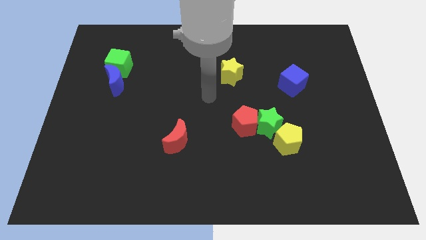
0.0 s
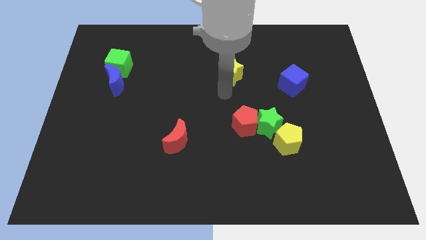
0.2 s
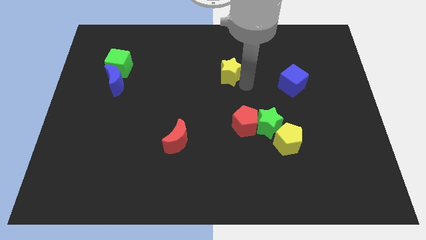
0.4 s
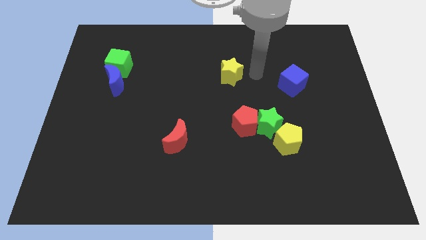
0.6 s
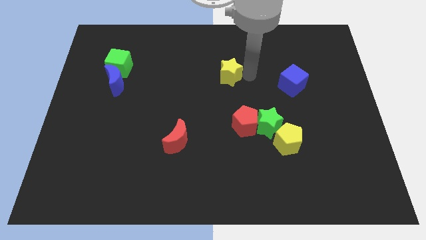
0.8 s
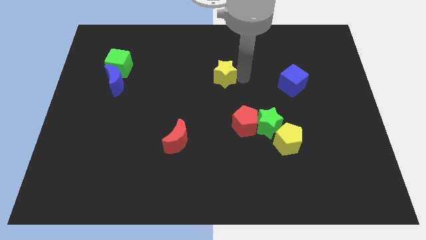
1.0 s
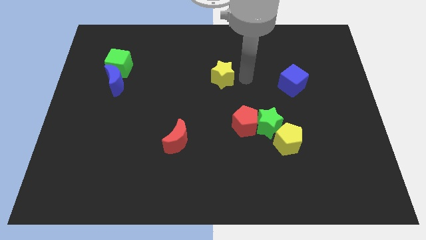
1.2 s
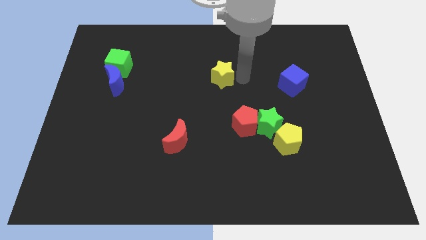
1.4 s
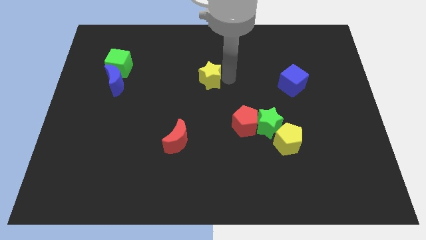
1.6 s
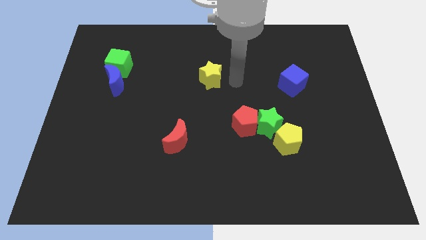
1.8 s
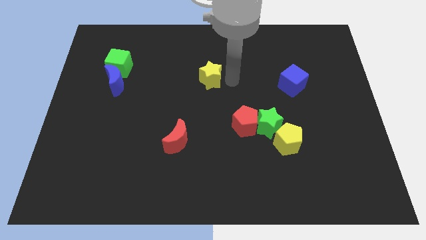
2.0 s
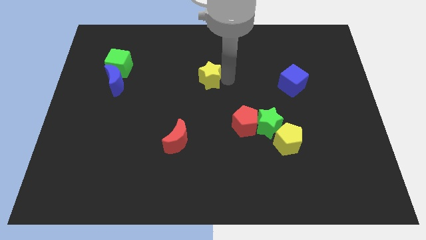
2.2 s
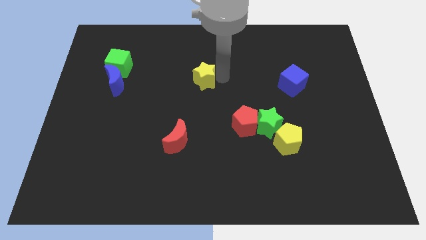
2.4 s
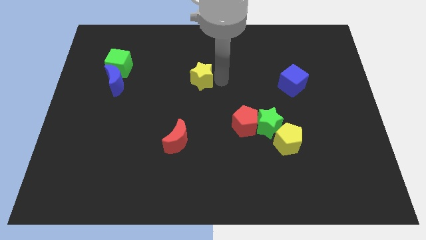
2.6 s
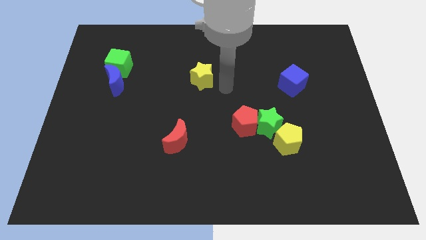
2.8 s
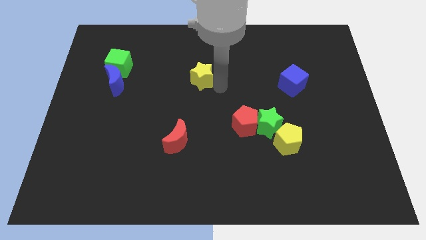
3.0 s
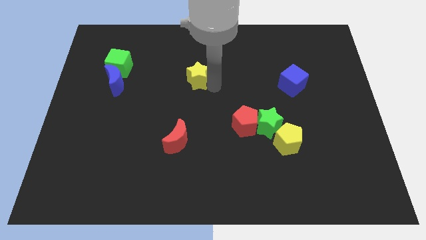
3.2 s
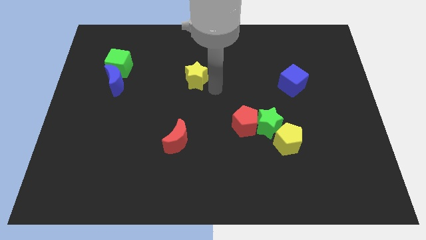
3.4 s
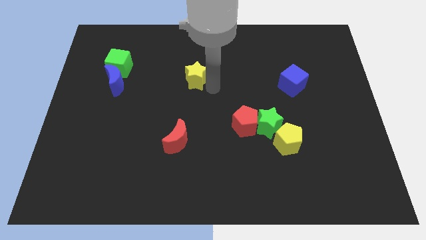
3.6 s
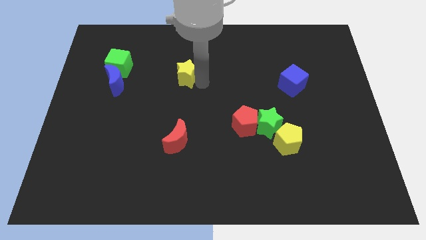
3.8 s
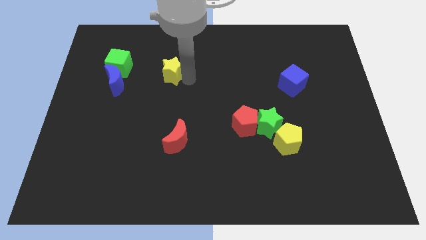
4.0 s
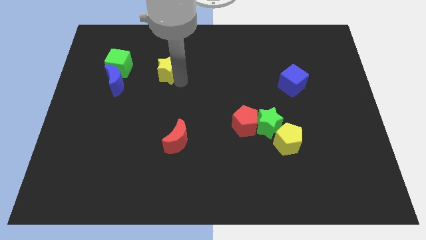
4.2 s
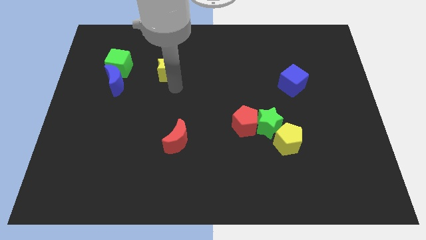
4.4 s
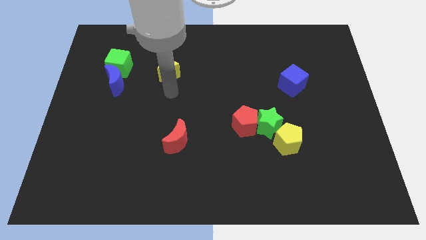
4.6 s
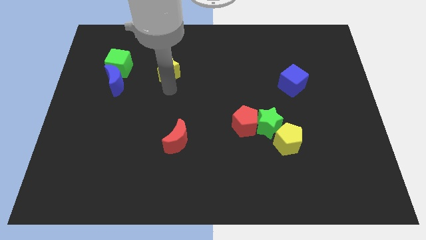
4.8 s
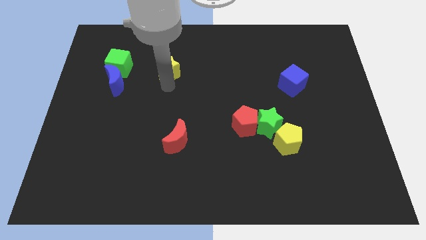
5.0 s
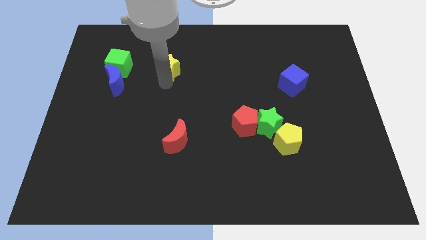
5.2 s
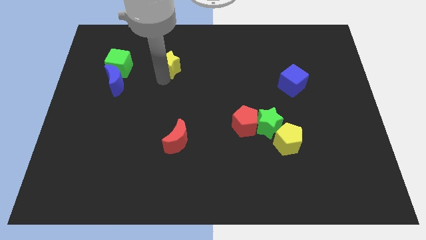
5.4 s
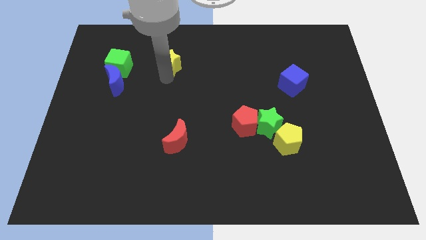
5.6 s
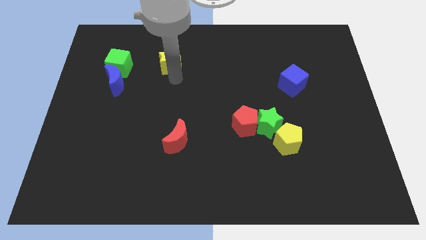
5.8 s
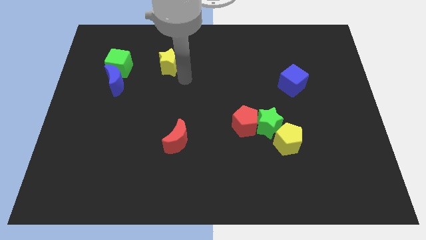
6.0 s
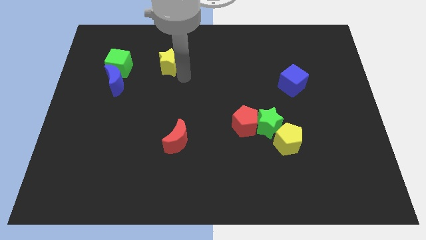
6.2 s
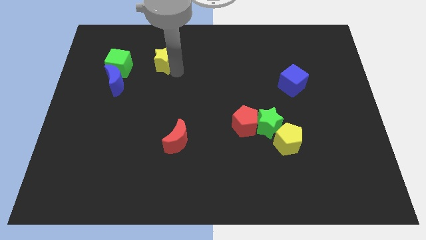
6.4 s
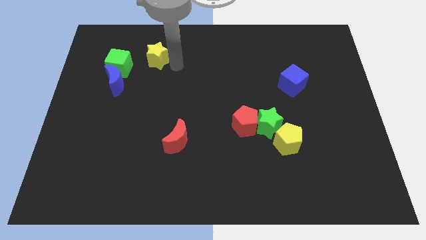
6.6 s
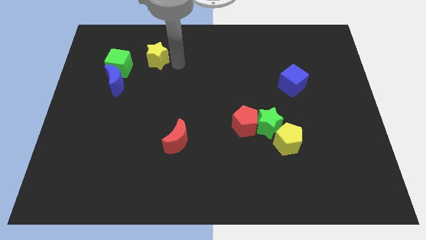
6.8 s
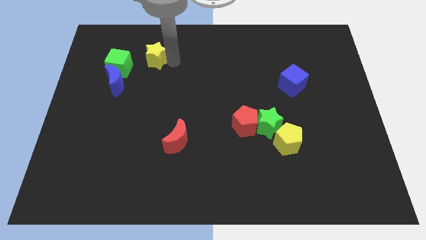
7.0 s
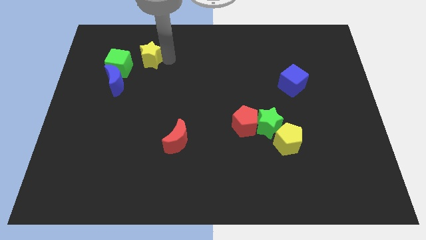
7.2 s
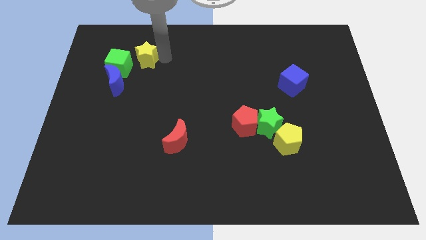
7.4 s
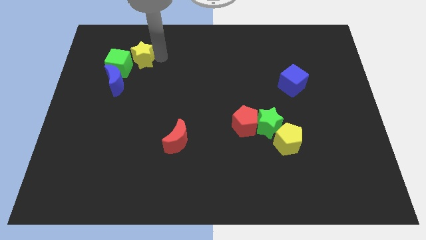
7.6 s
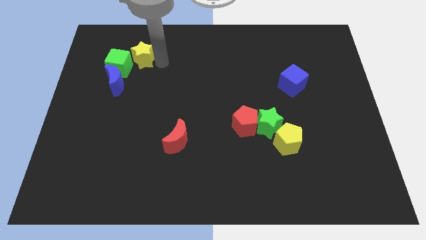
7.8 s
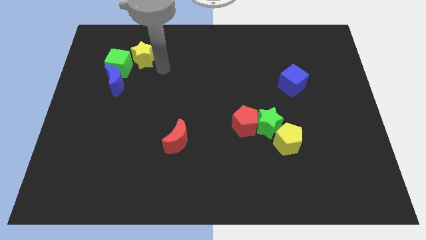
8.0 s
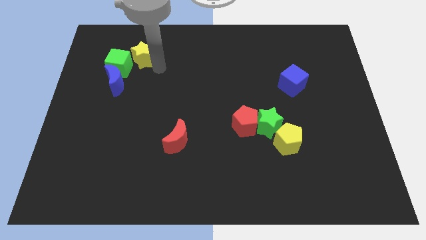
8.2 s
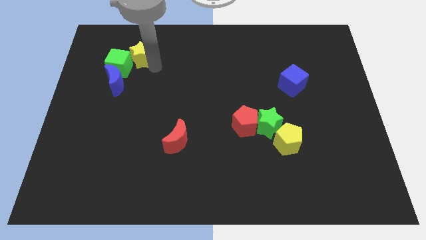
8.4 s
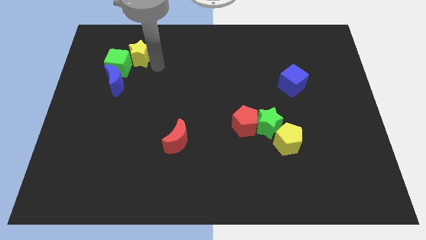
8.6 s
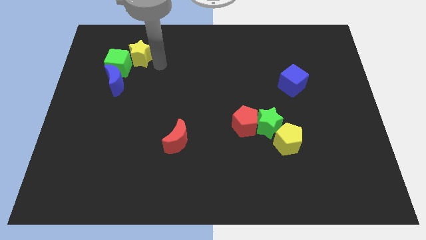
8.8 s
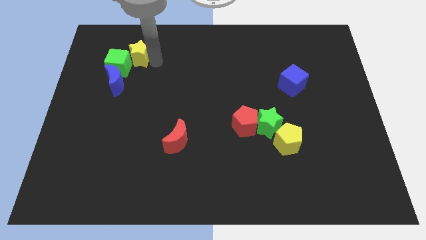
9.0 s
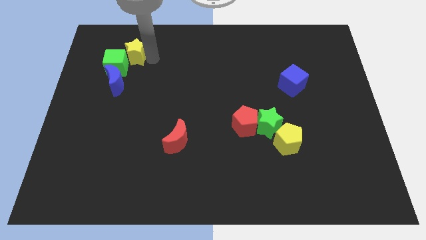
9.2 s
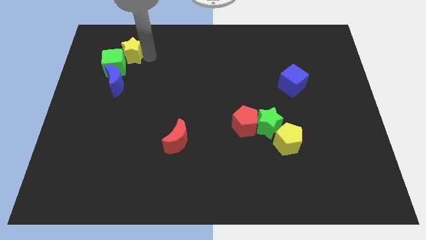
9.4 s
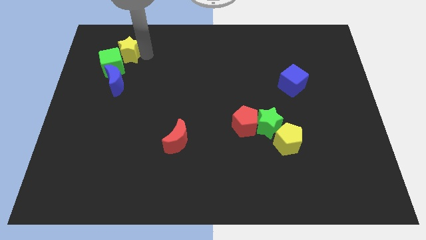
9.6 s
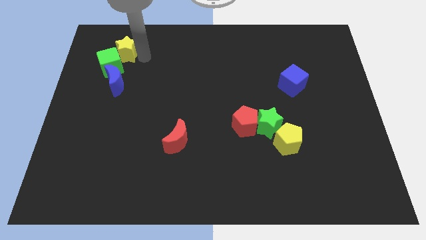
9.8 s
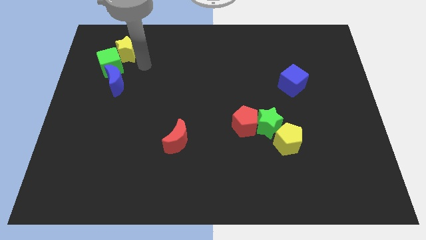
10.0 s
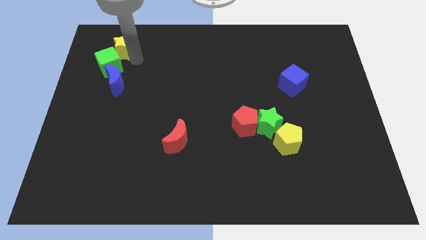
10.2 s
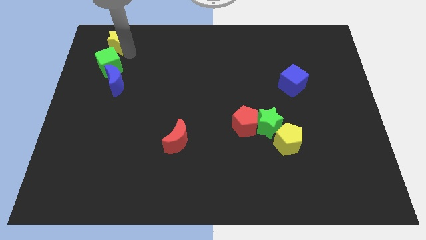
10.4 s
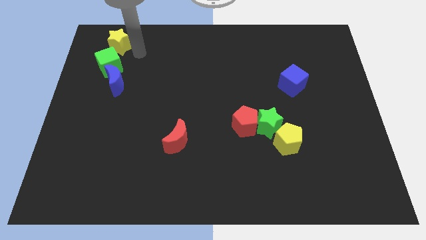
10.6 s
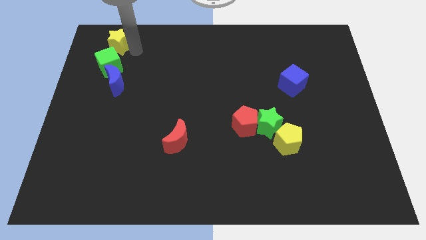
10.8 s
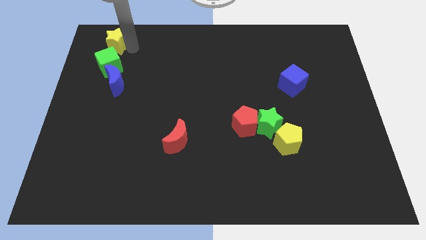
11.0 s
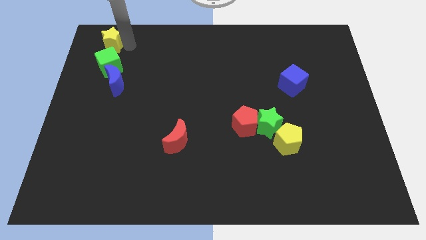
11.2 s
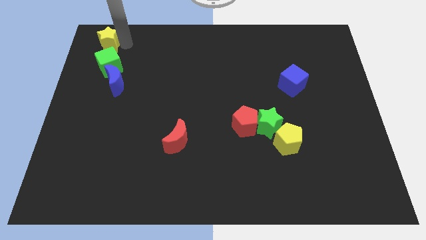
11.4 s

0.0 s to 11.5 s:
move the yellow star to the upper left corner
